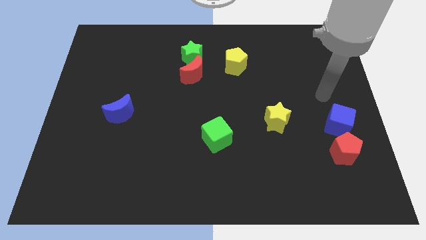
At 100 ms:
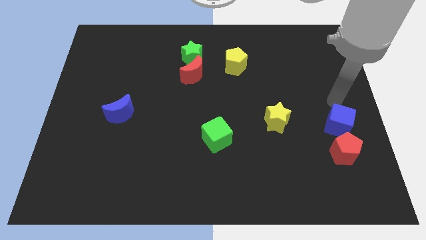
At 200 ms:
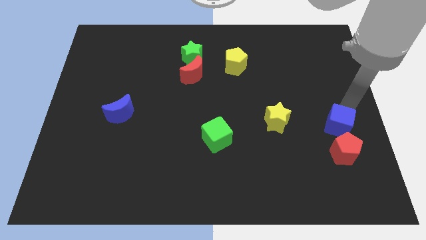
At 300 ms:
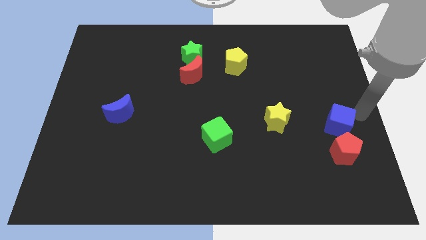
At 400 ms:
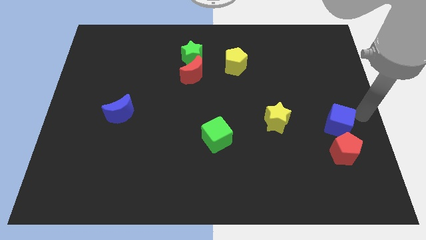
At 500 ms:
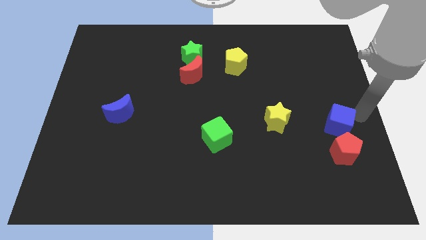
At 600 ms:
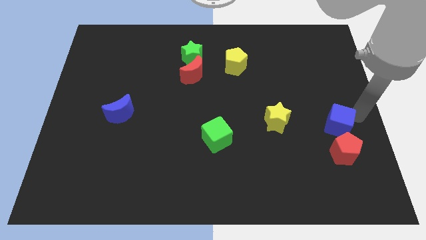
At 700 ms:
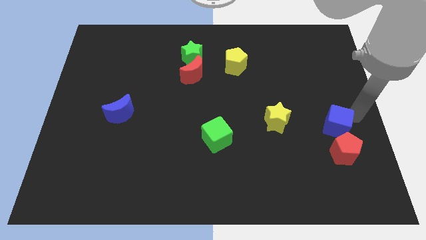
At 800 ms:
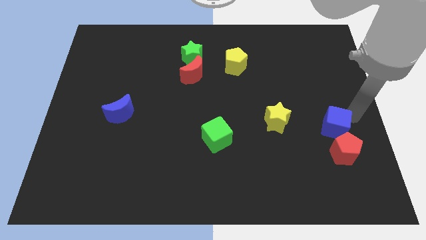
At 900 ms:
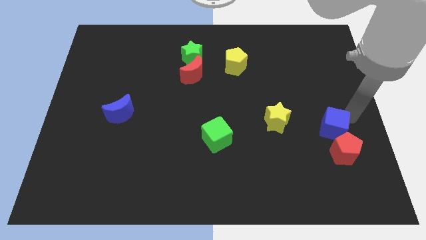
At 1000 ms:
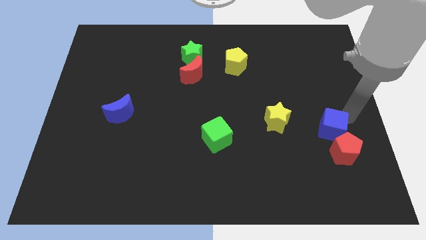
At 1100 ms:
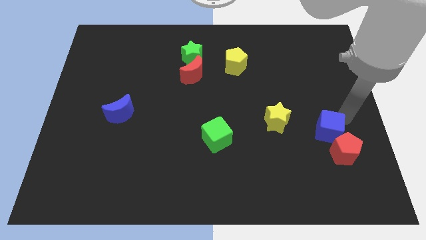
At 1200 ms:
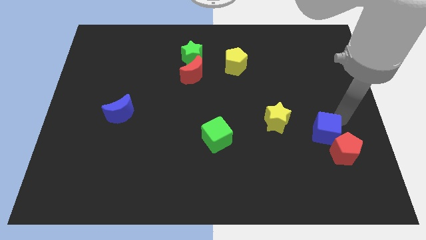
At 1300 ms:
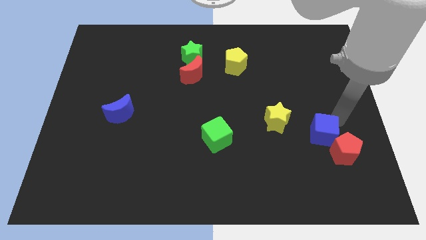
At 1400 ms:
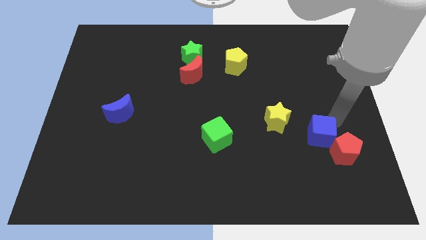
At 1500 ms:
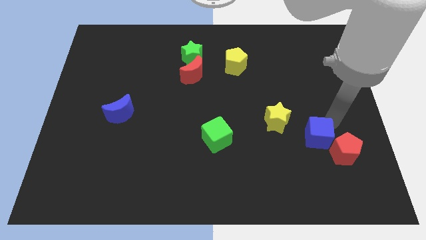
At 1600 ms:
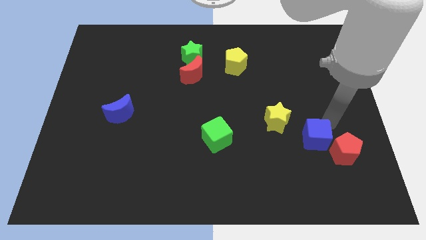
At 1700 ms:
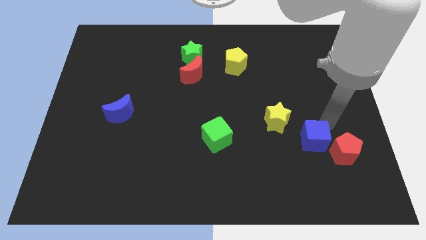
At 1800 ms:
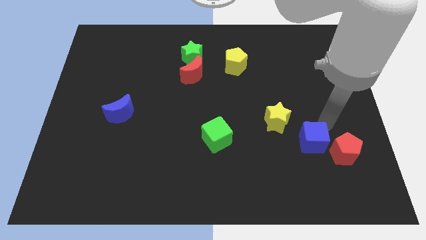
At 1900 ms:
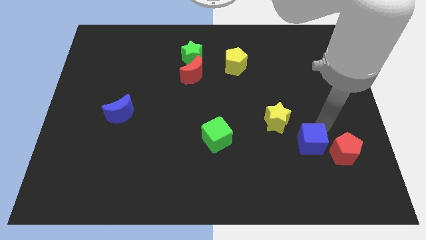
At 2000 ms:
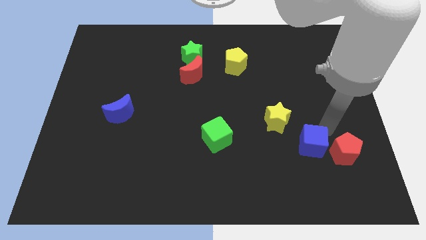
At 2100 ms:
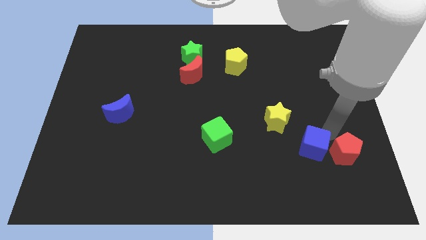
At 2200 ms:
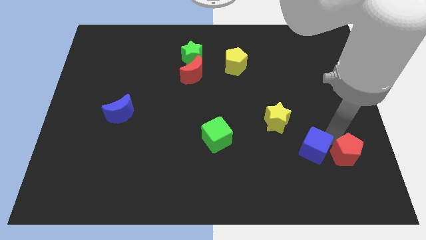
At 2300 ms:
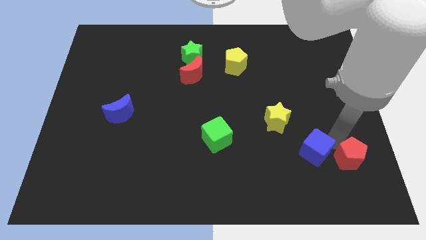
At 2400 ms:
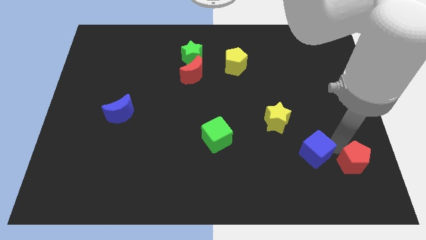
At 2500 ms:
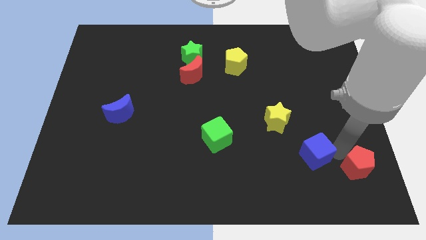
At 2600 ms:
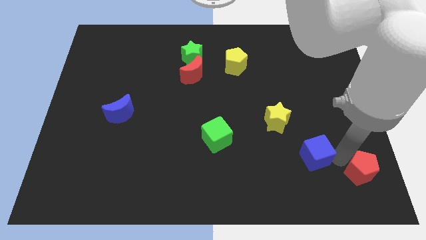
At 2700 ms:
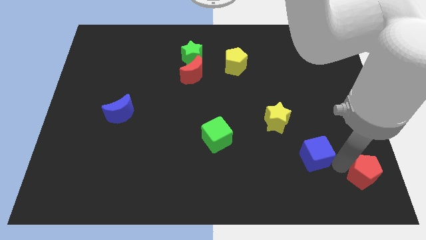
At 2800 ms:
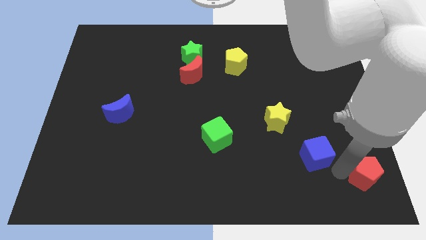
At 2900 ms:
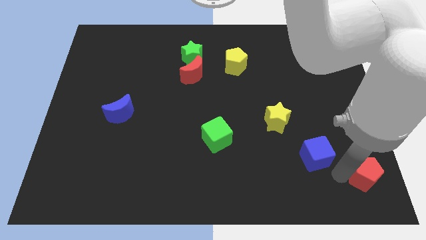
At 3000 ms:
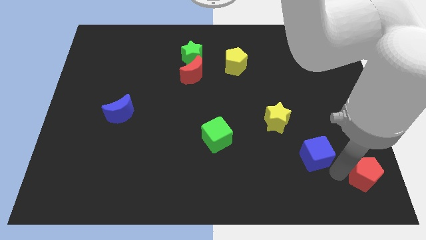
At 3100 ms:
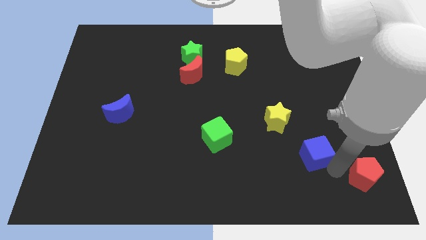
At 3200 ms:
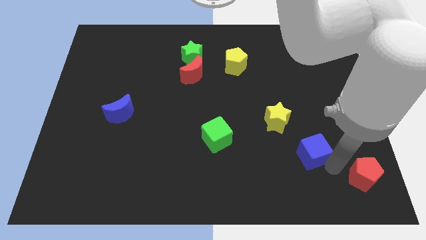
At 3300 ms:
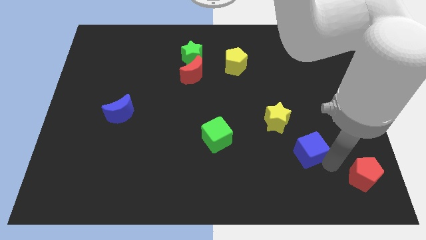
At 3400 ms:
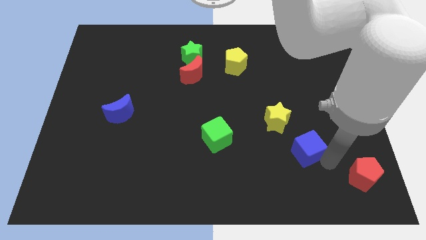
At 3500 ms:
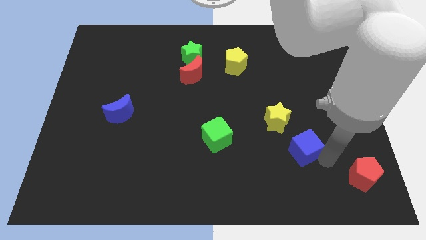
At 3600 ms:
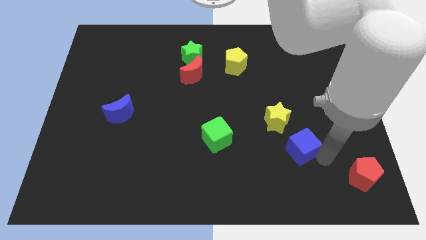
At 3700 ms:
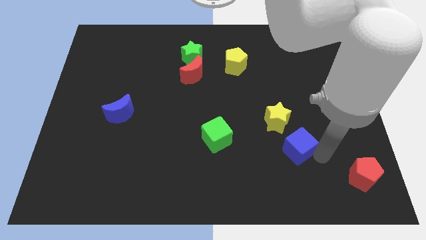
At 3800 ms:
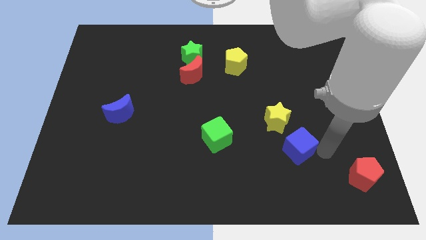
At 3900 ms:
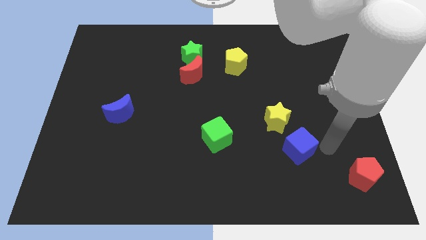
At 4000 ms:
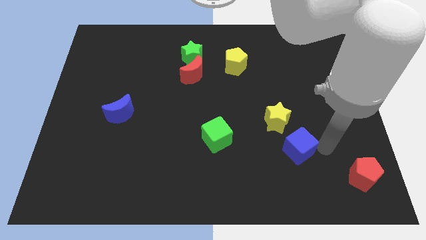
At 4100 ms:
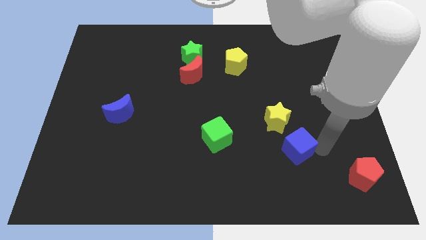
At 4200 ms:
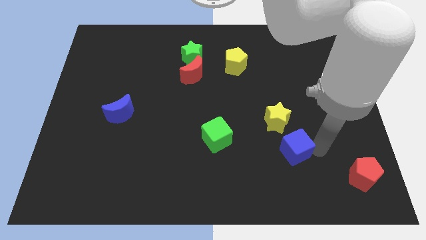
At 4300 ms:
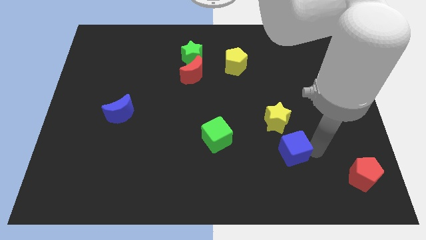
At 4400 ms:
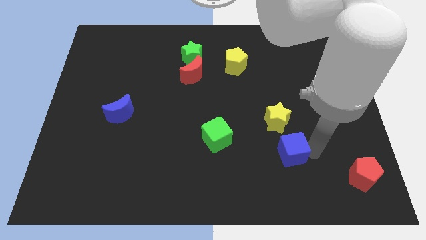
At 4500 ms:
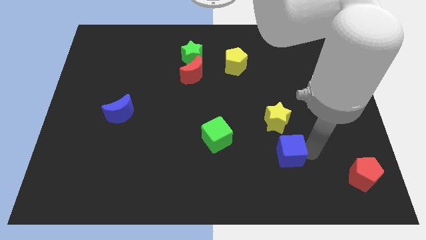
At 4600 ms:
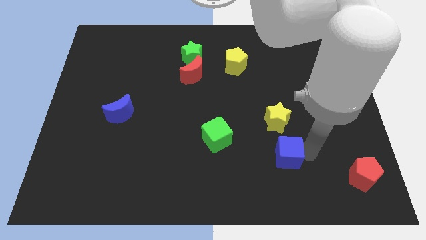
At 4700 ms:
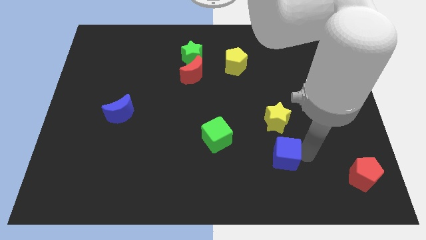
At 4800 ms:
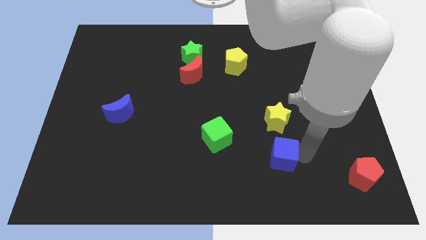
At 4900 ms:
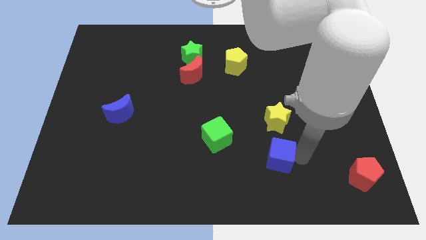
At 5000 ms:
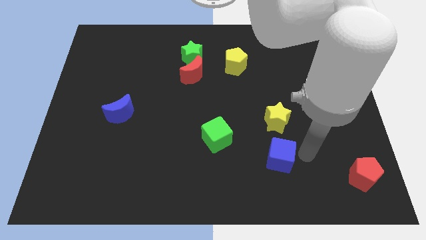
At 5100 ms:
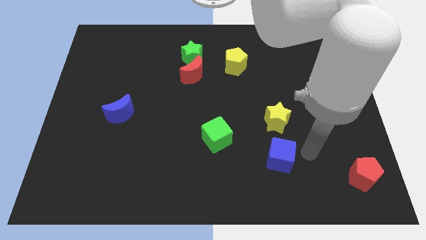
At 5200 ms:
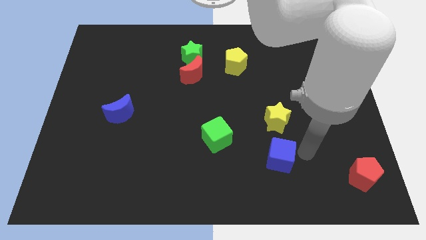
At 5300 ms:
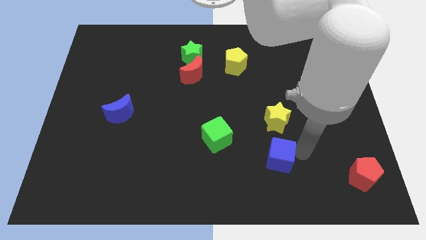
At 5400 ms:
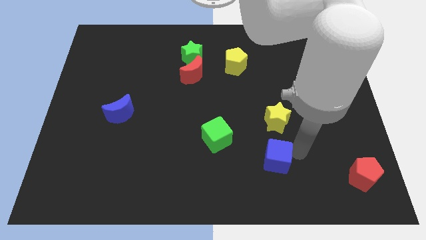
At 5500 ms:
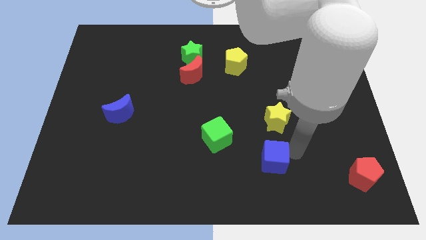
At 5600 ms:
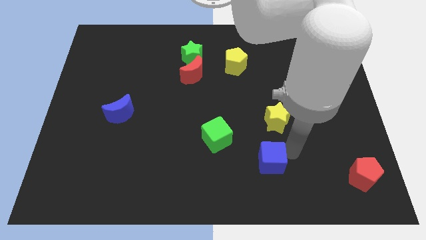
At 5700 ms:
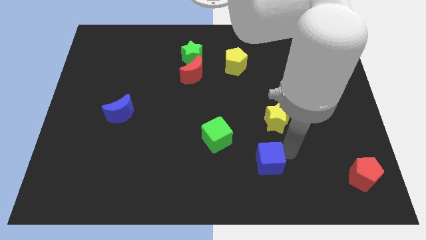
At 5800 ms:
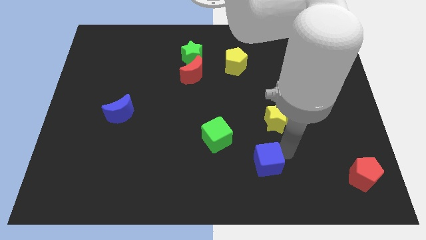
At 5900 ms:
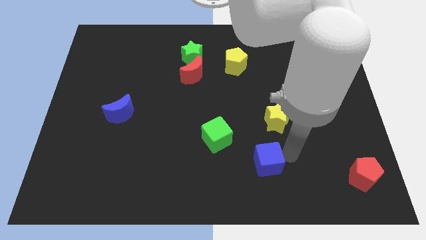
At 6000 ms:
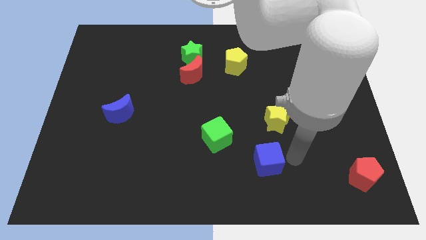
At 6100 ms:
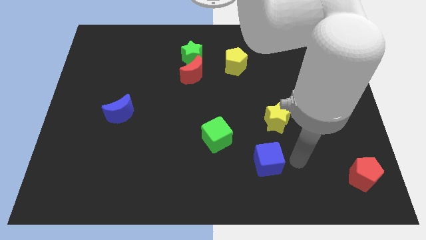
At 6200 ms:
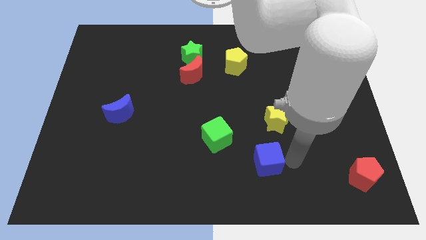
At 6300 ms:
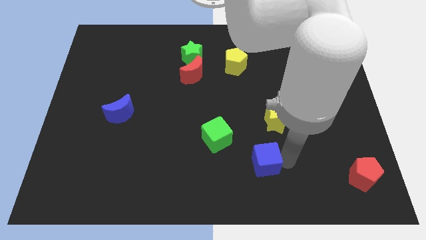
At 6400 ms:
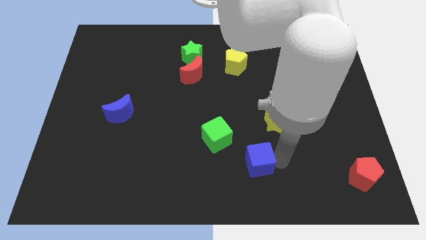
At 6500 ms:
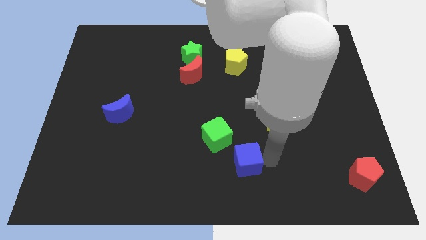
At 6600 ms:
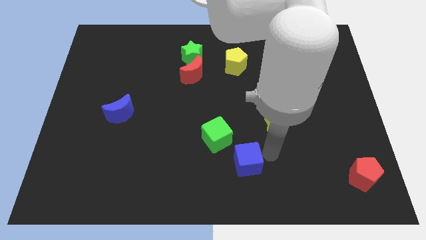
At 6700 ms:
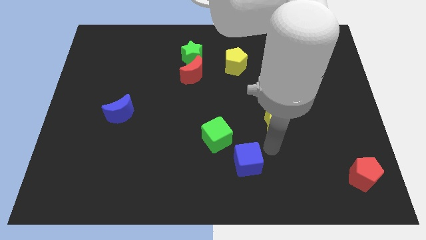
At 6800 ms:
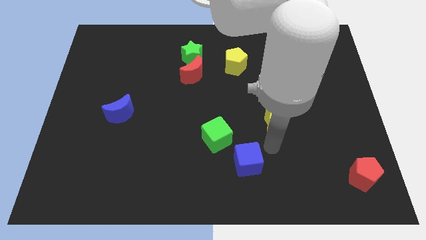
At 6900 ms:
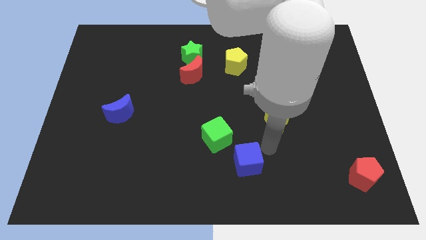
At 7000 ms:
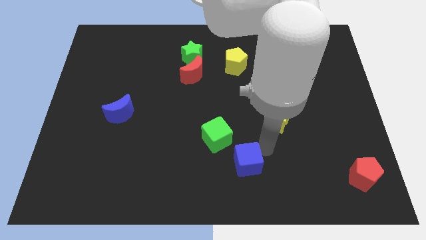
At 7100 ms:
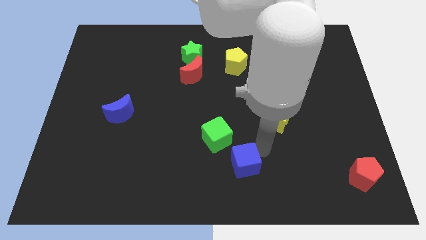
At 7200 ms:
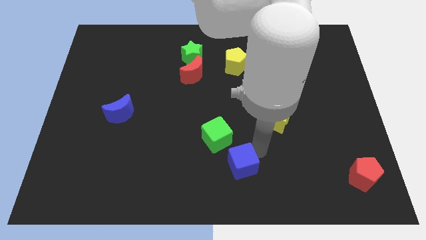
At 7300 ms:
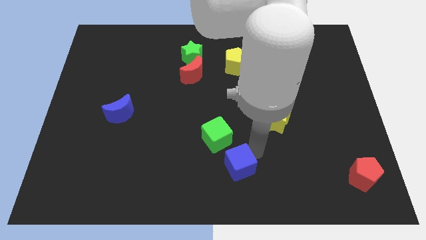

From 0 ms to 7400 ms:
move the blue cube to the bottom side of the green cube

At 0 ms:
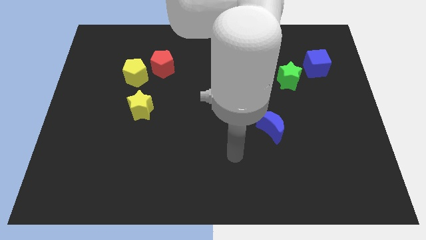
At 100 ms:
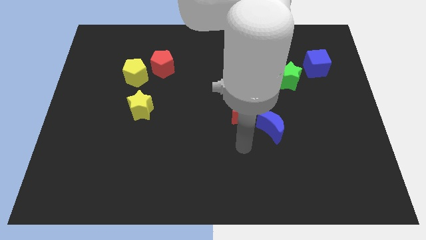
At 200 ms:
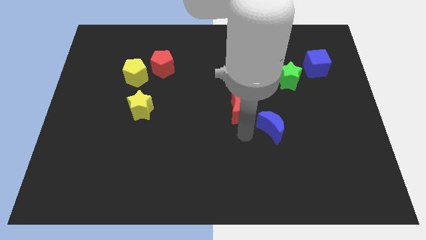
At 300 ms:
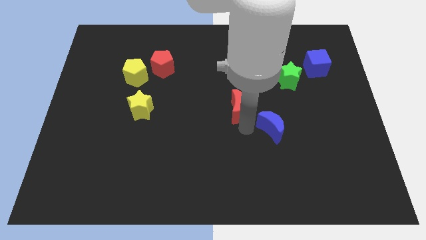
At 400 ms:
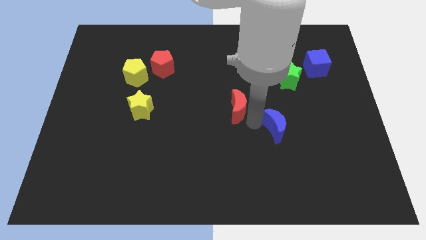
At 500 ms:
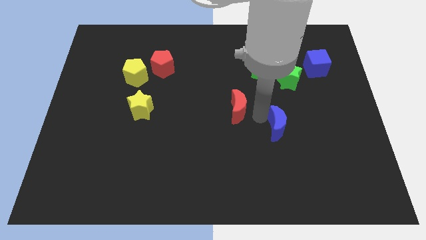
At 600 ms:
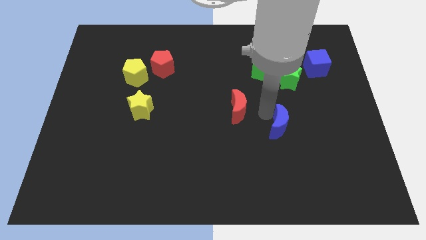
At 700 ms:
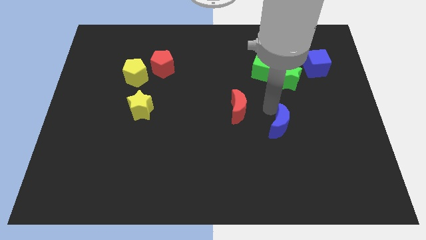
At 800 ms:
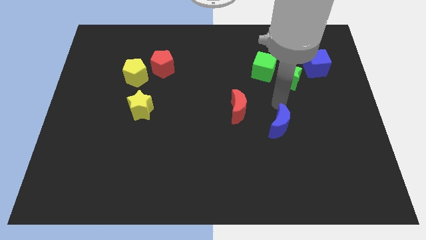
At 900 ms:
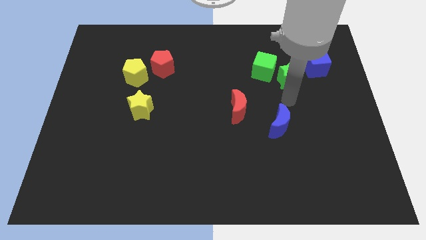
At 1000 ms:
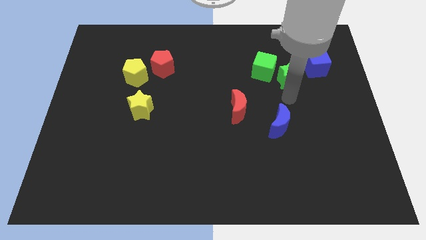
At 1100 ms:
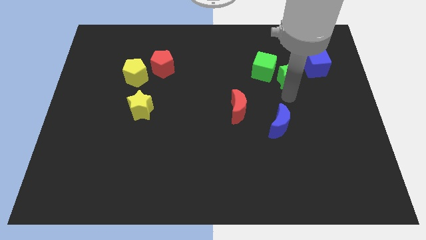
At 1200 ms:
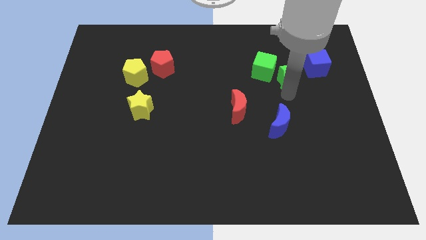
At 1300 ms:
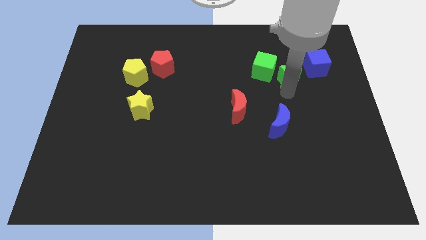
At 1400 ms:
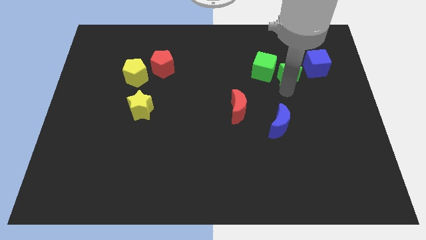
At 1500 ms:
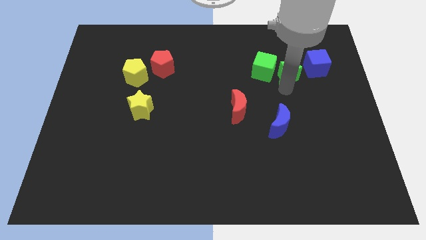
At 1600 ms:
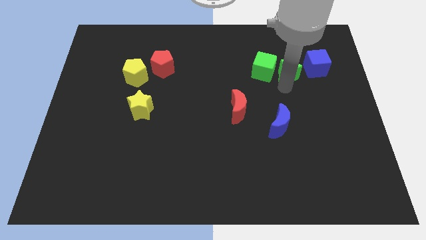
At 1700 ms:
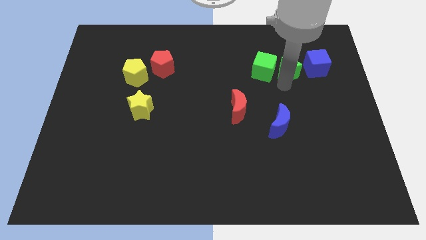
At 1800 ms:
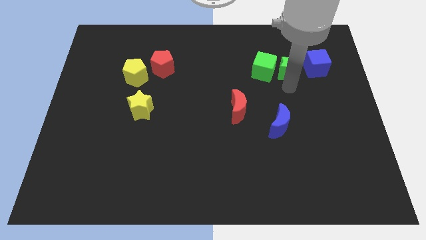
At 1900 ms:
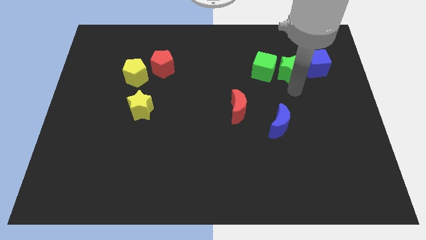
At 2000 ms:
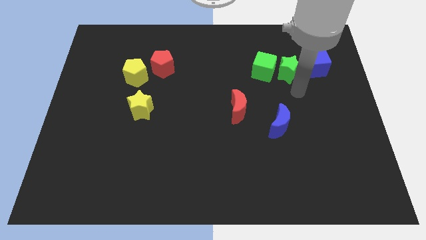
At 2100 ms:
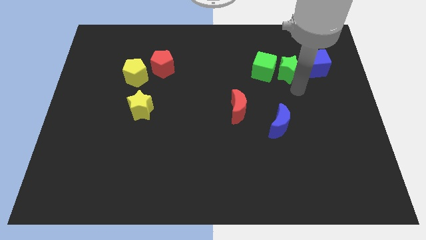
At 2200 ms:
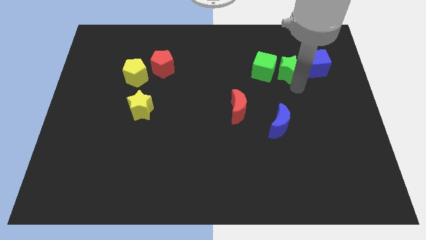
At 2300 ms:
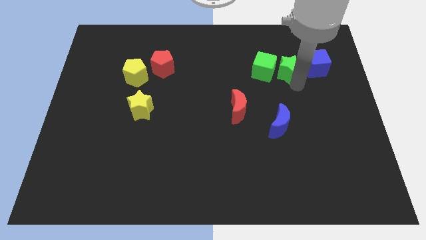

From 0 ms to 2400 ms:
move the green star diagonally up and to the right of the green cube
